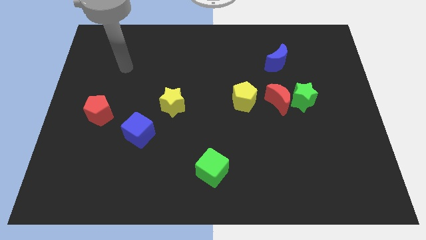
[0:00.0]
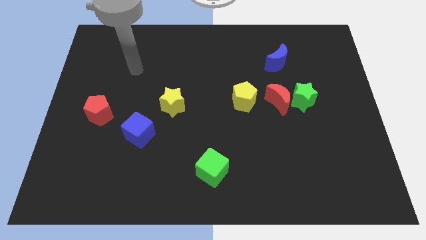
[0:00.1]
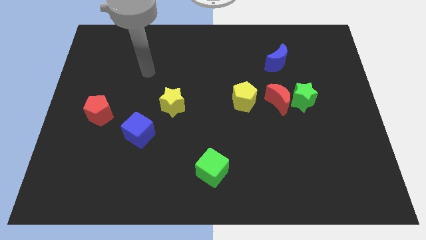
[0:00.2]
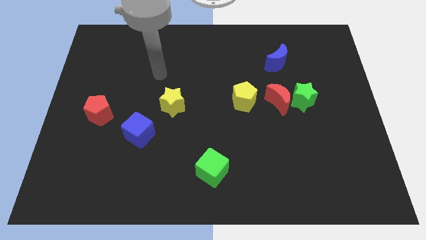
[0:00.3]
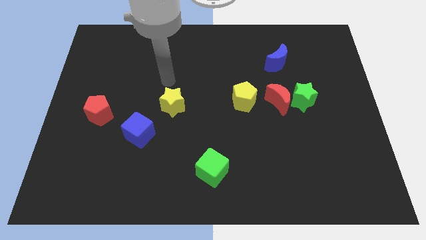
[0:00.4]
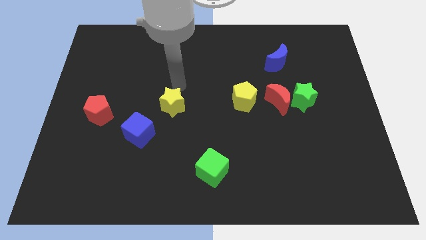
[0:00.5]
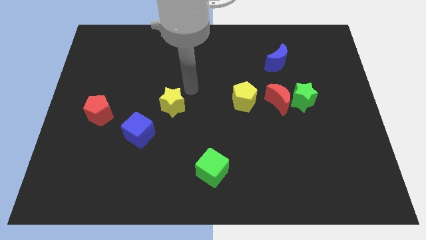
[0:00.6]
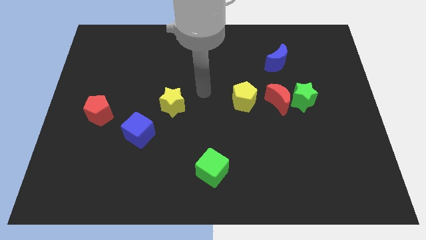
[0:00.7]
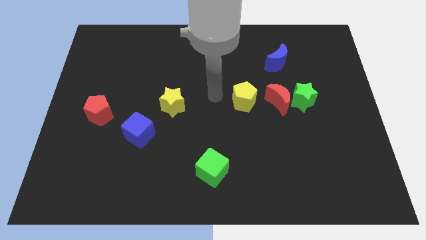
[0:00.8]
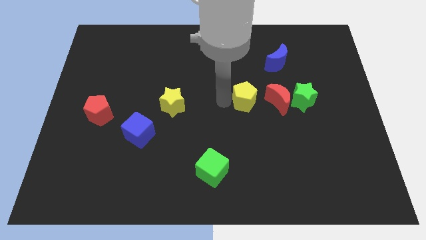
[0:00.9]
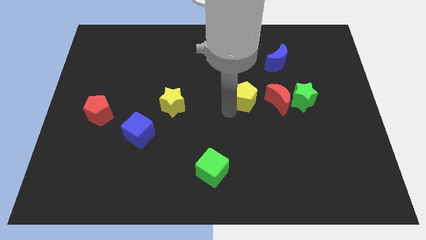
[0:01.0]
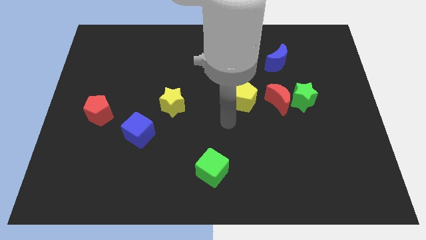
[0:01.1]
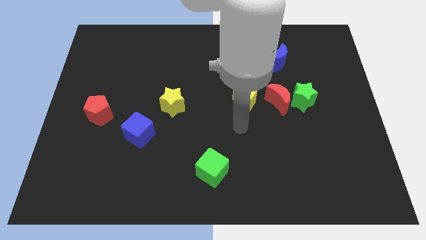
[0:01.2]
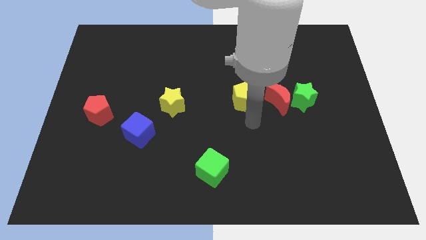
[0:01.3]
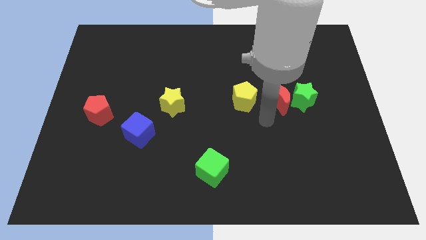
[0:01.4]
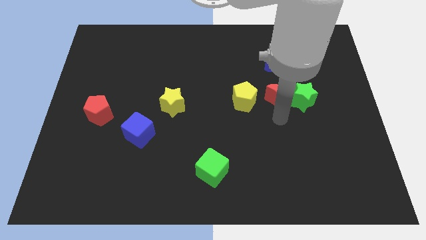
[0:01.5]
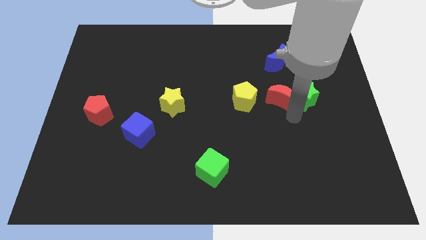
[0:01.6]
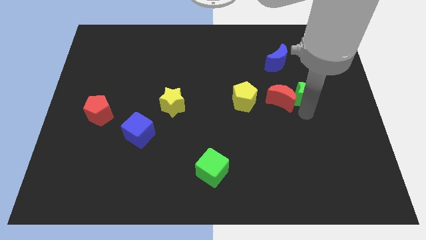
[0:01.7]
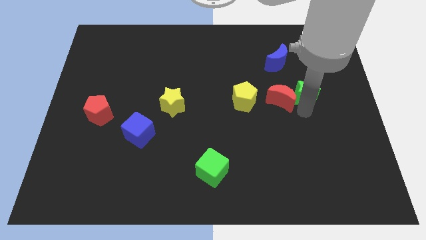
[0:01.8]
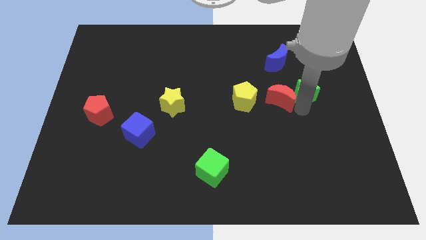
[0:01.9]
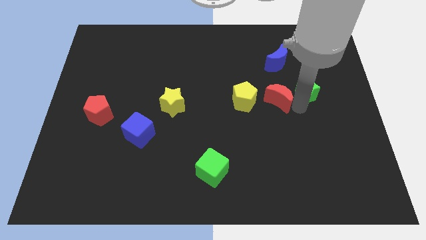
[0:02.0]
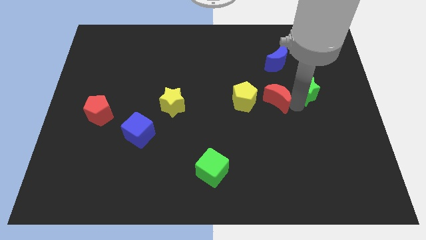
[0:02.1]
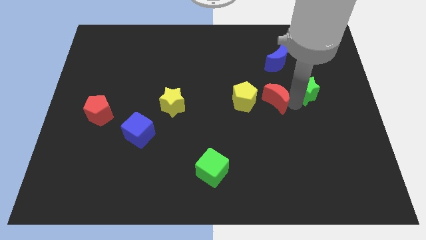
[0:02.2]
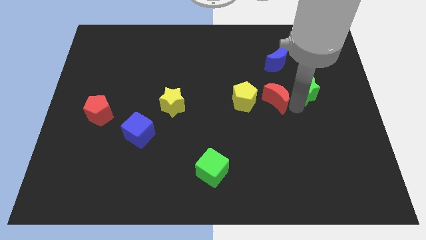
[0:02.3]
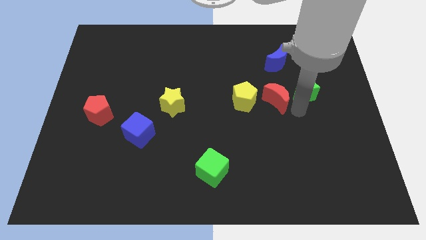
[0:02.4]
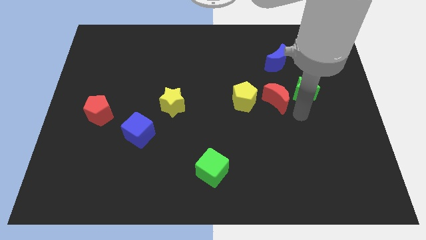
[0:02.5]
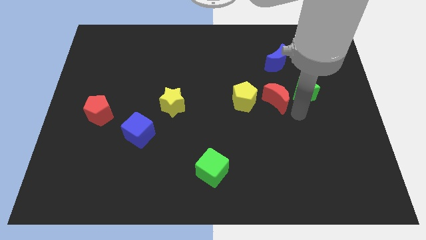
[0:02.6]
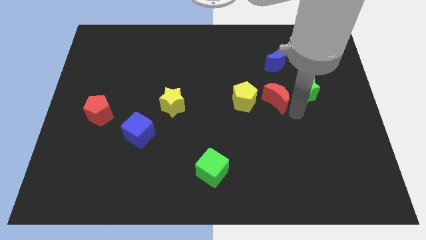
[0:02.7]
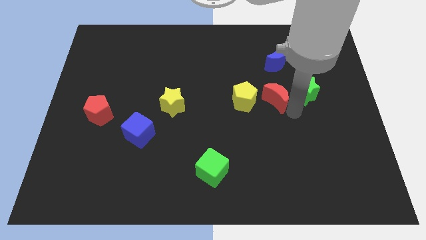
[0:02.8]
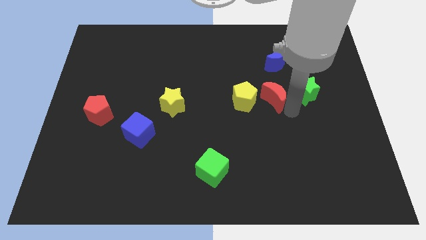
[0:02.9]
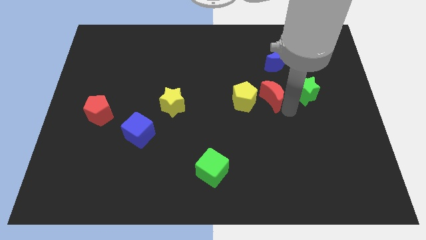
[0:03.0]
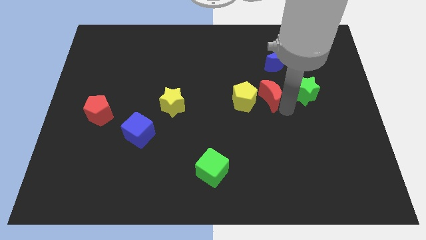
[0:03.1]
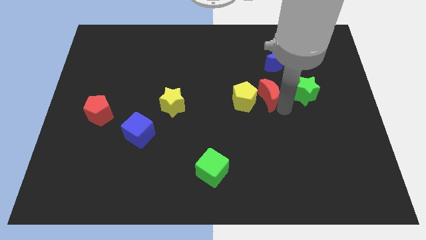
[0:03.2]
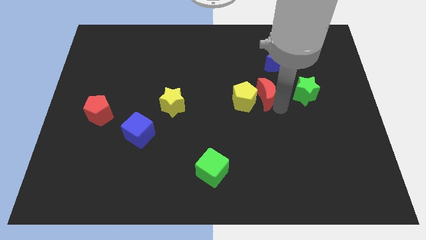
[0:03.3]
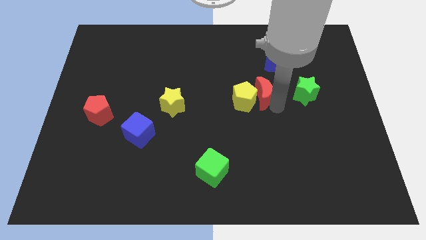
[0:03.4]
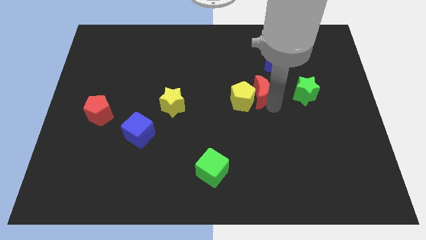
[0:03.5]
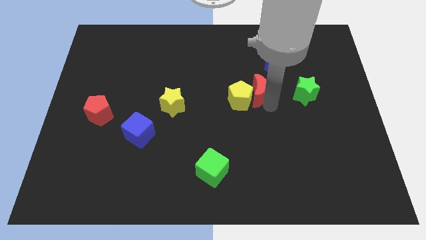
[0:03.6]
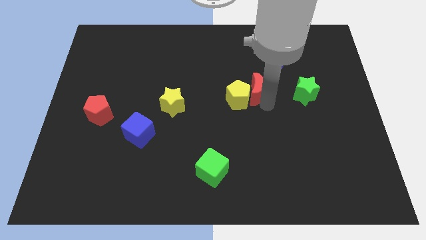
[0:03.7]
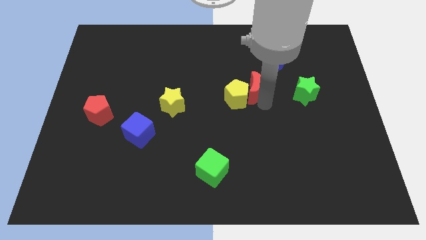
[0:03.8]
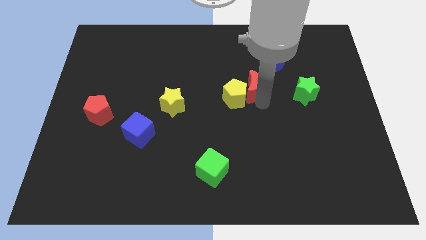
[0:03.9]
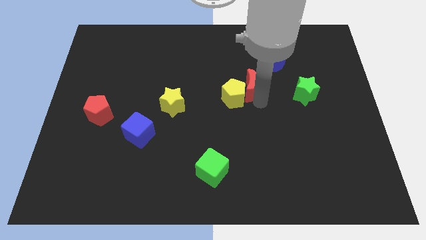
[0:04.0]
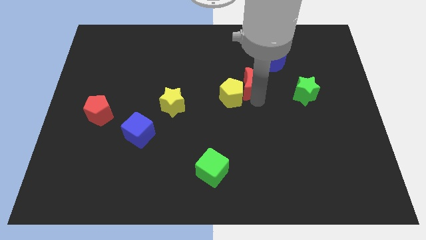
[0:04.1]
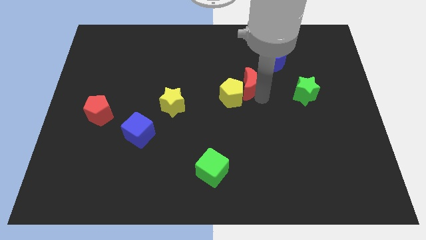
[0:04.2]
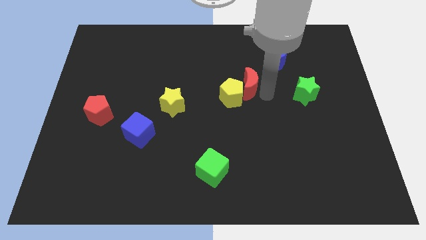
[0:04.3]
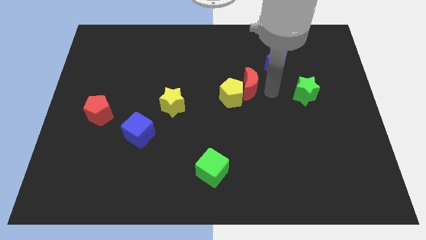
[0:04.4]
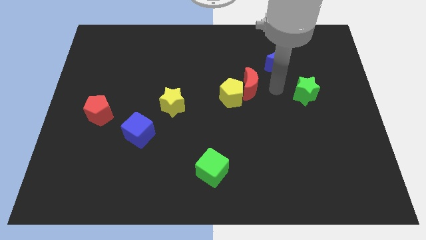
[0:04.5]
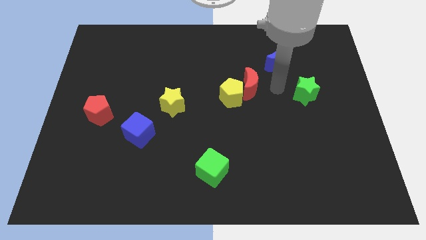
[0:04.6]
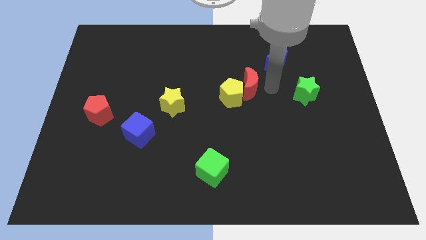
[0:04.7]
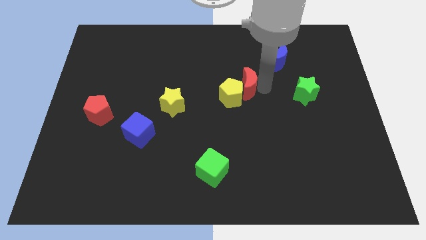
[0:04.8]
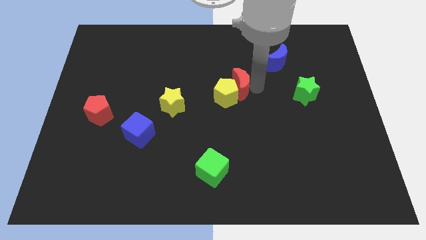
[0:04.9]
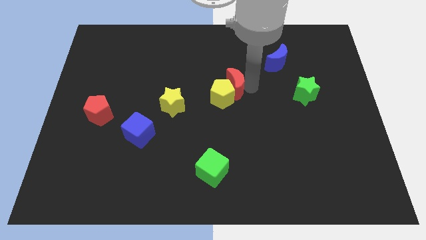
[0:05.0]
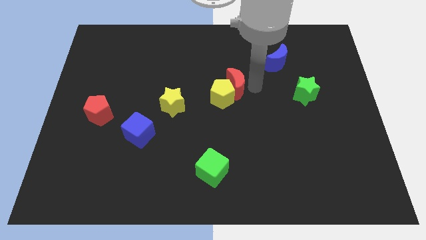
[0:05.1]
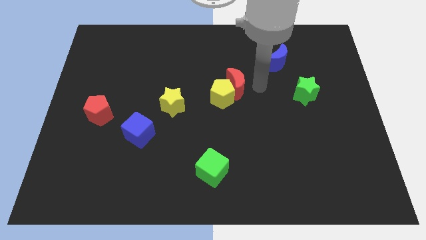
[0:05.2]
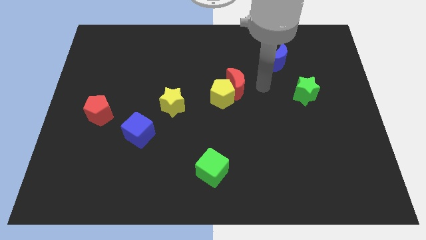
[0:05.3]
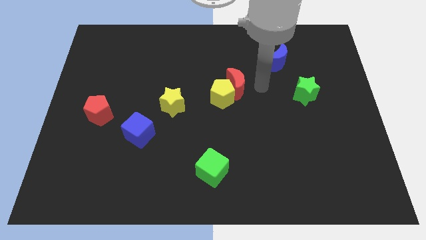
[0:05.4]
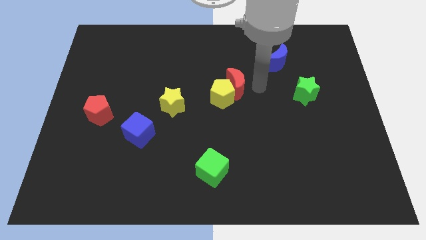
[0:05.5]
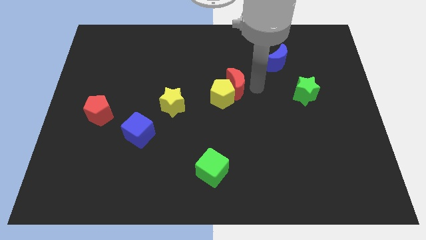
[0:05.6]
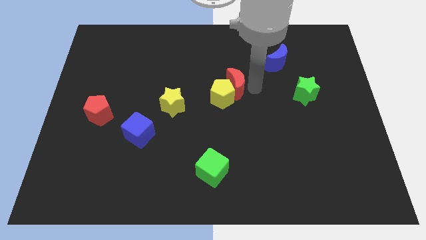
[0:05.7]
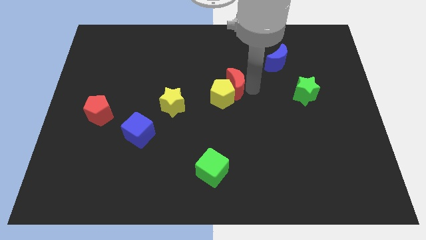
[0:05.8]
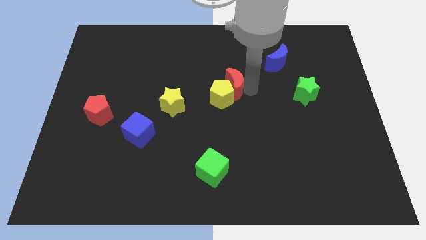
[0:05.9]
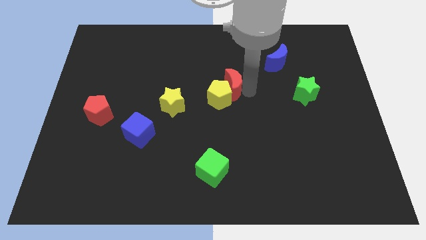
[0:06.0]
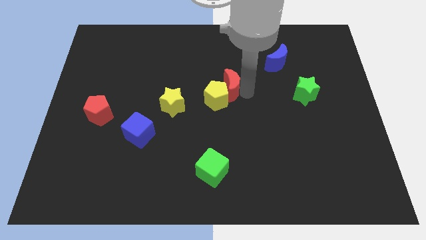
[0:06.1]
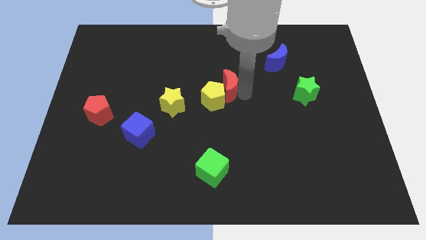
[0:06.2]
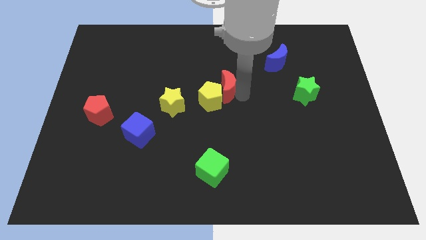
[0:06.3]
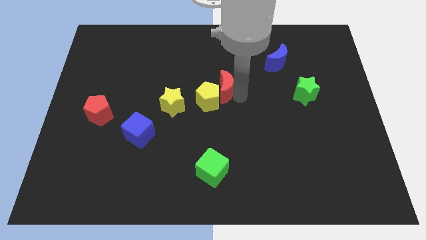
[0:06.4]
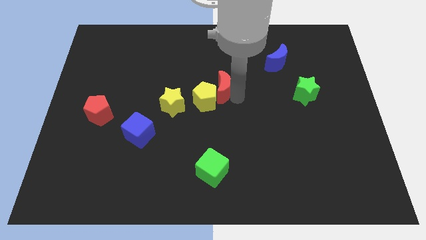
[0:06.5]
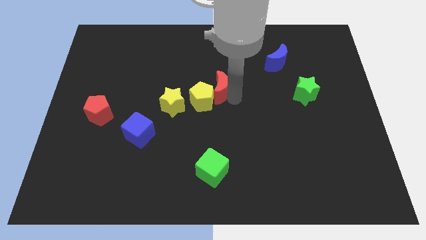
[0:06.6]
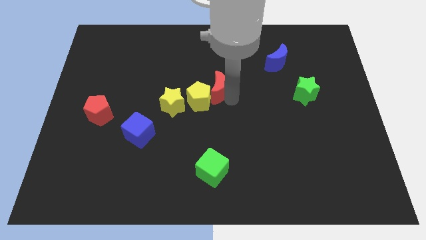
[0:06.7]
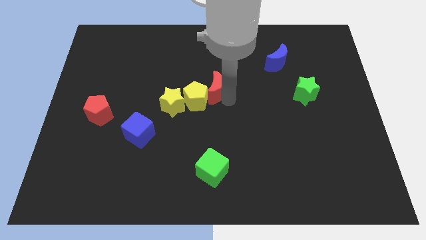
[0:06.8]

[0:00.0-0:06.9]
slide the red moon to the top right side of the yellow star

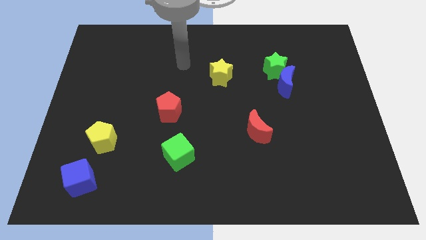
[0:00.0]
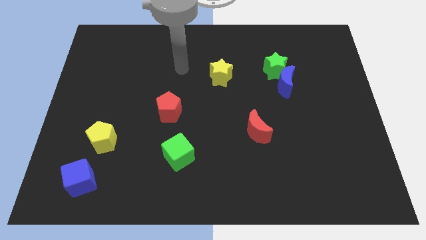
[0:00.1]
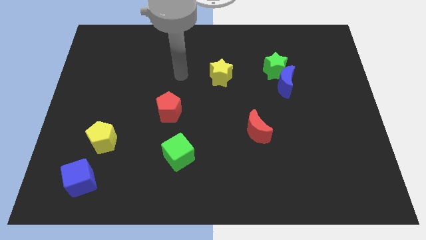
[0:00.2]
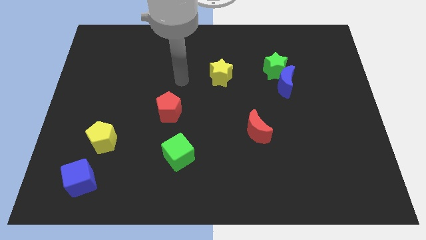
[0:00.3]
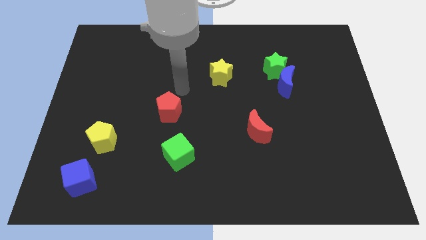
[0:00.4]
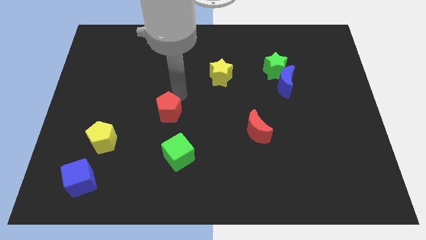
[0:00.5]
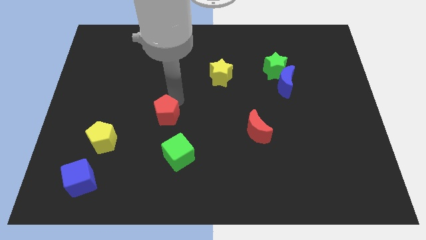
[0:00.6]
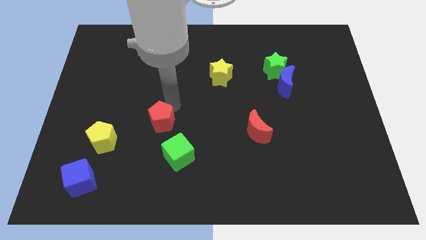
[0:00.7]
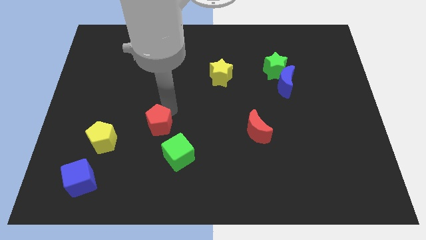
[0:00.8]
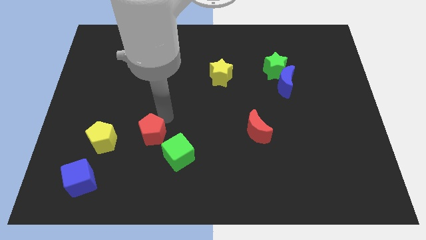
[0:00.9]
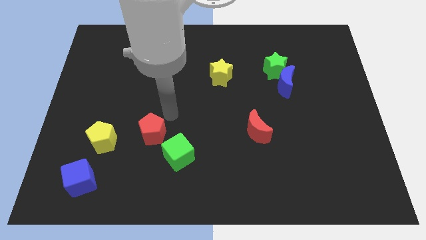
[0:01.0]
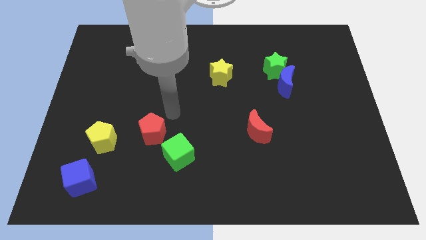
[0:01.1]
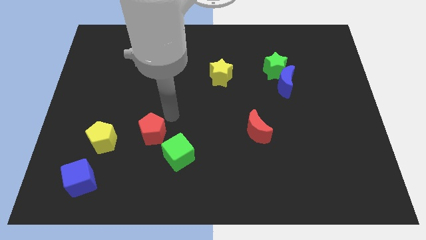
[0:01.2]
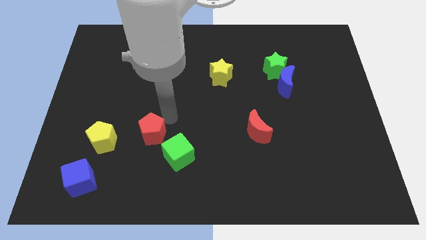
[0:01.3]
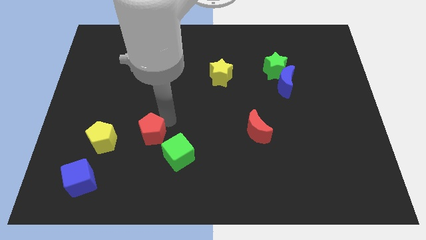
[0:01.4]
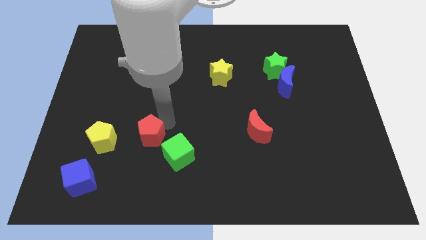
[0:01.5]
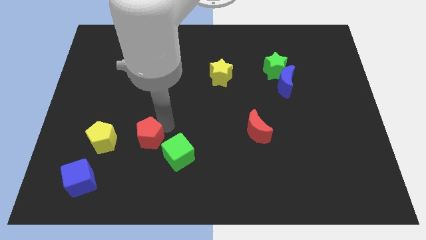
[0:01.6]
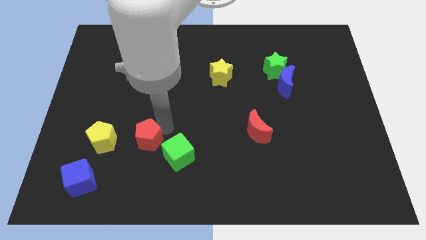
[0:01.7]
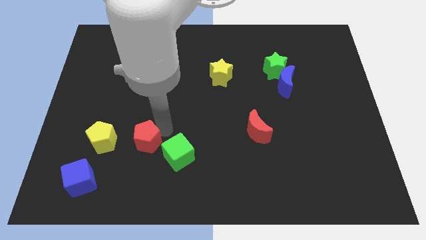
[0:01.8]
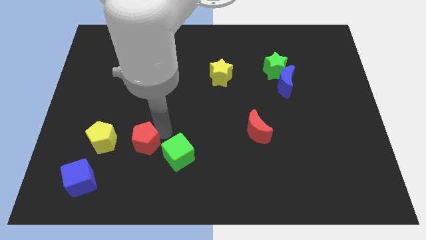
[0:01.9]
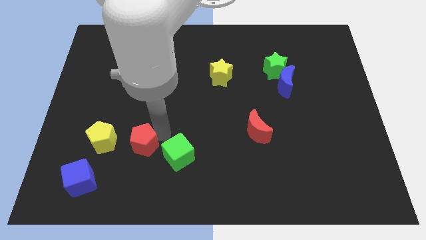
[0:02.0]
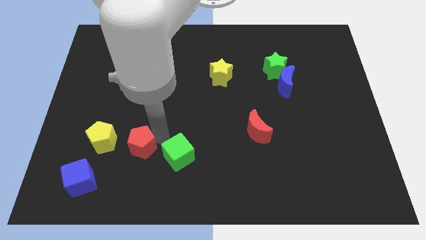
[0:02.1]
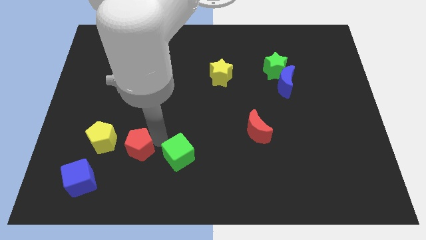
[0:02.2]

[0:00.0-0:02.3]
put the red pentagon diagonally down and to the right of the yellow pentagon
